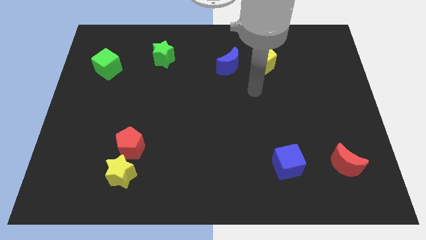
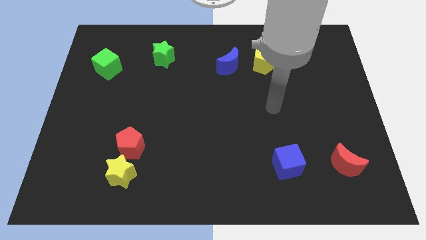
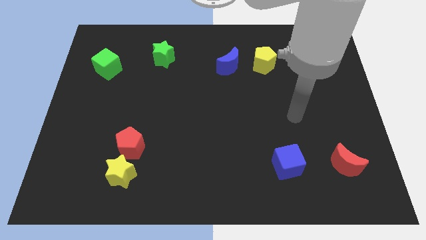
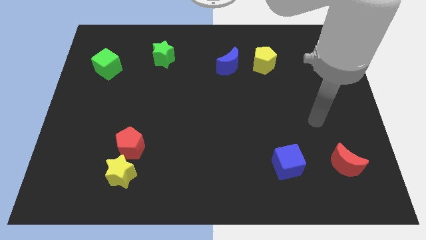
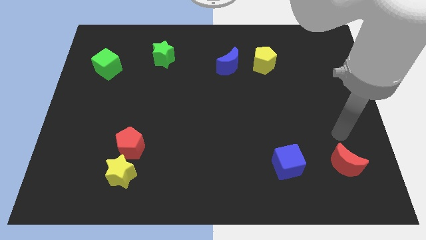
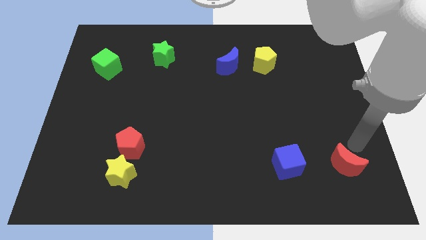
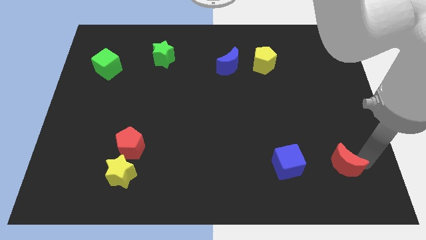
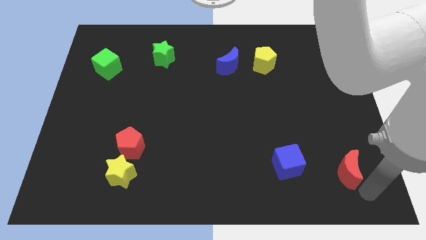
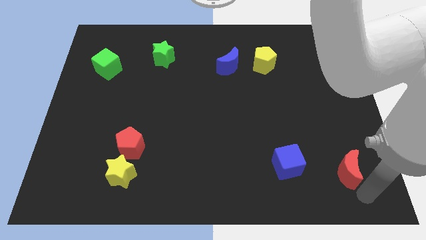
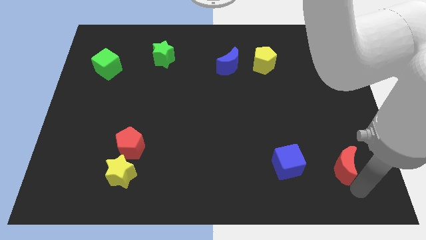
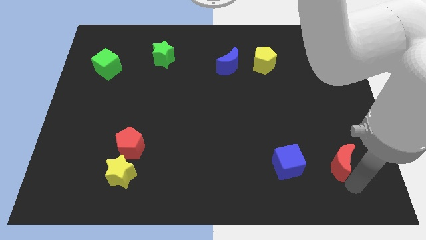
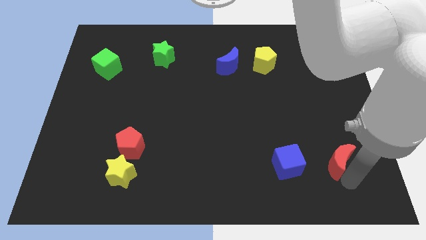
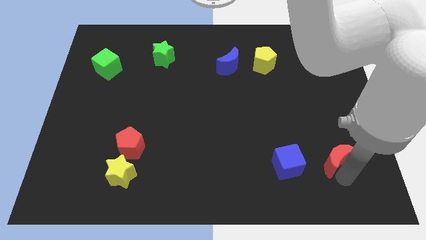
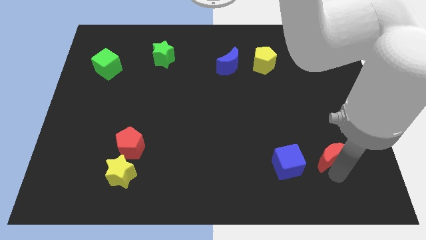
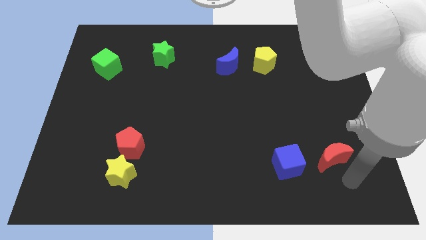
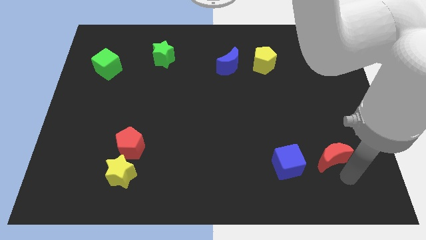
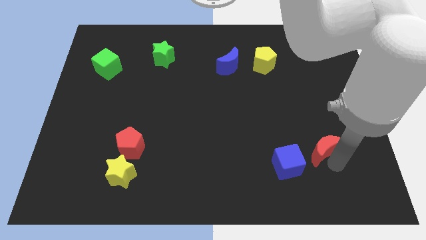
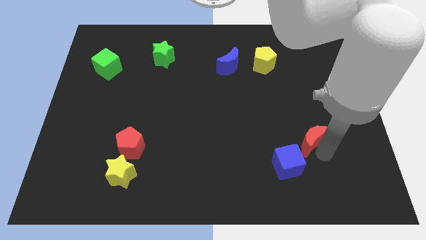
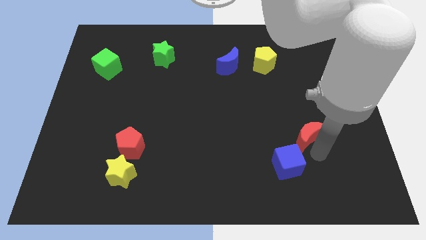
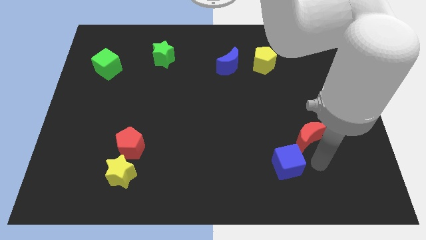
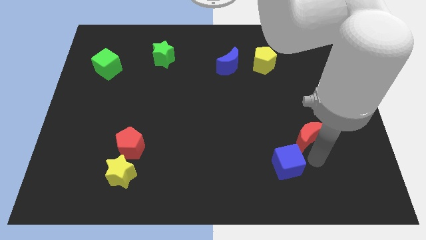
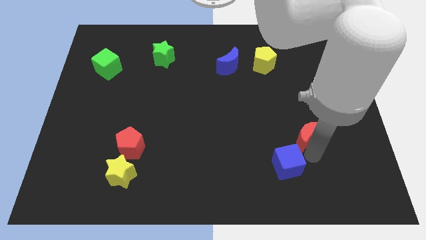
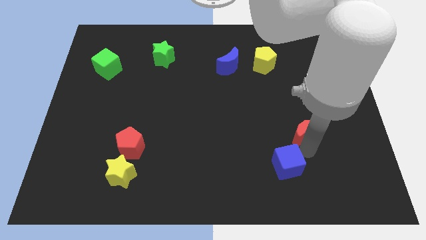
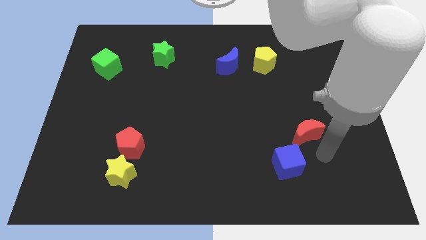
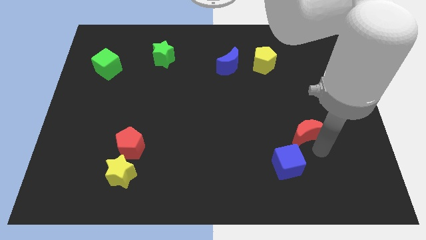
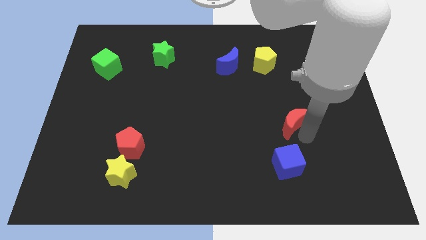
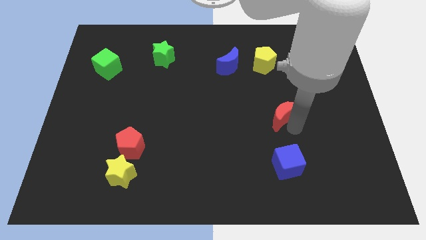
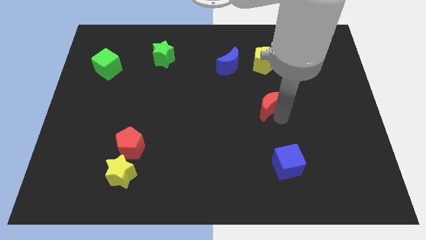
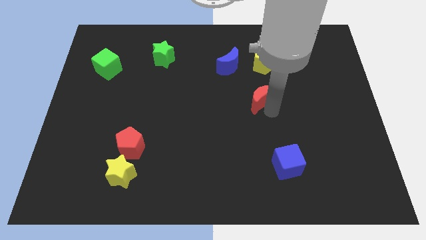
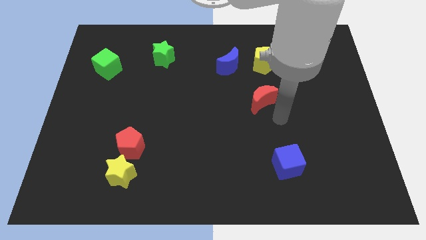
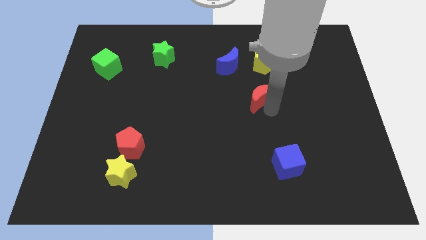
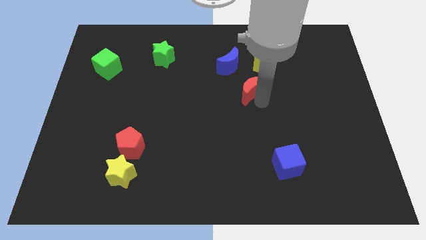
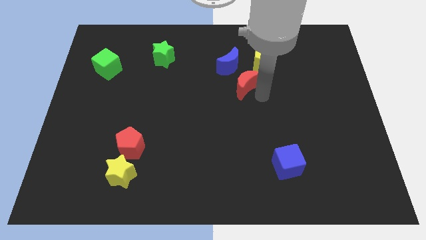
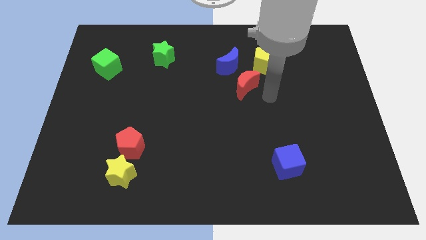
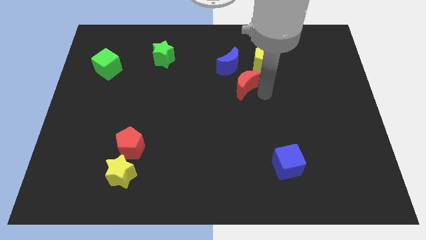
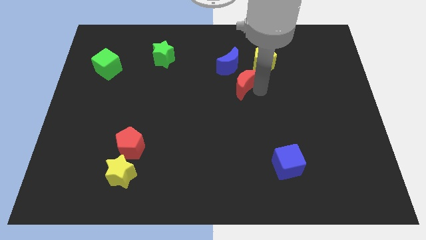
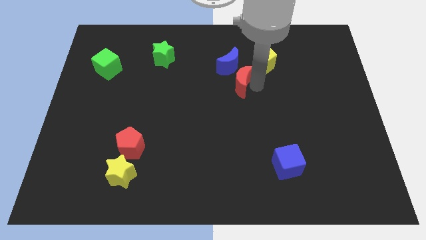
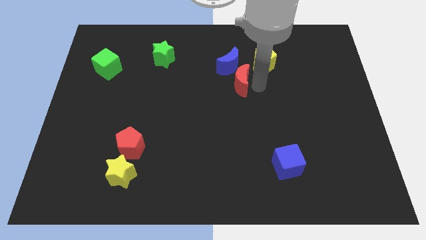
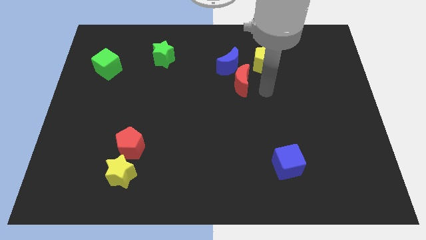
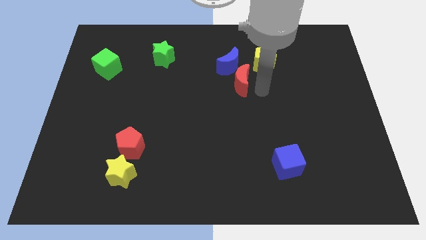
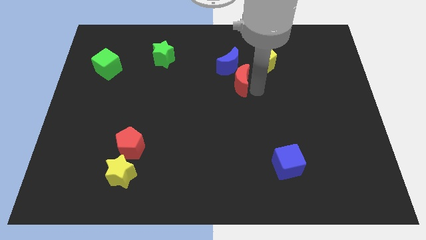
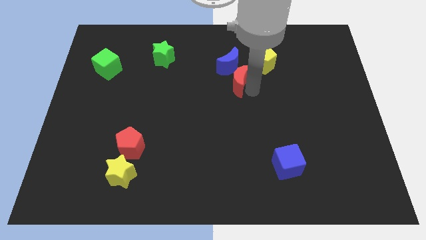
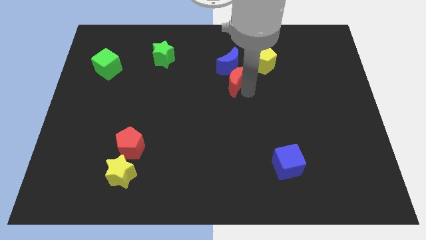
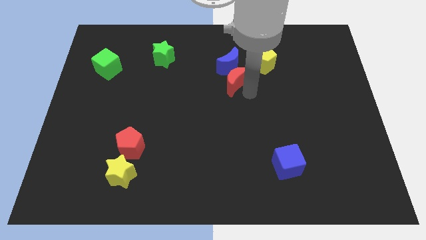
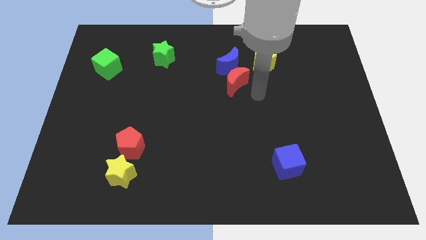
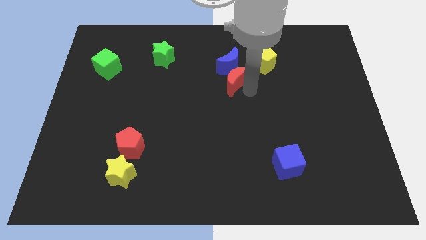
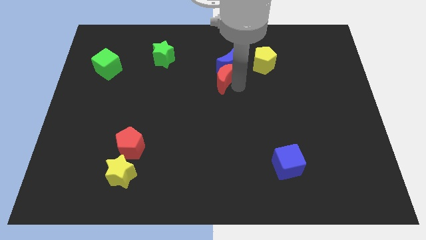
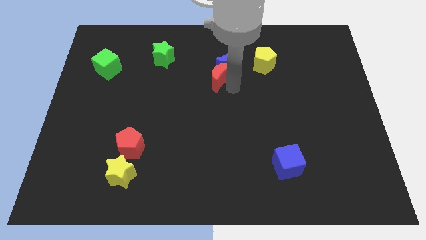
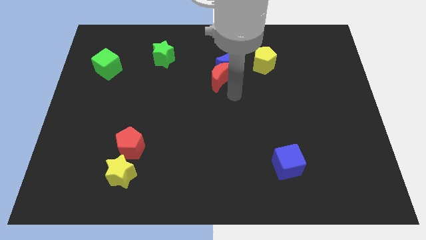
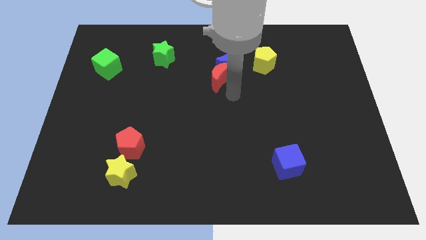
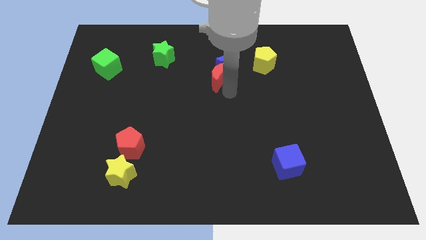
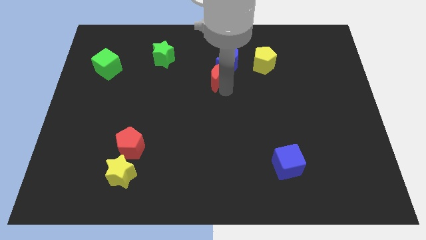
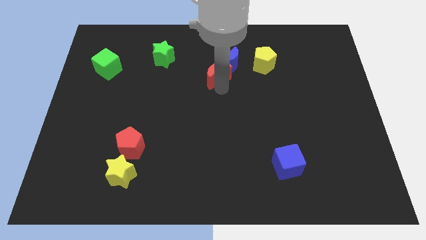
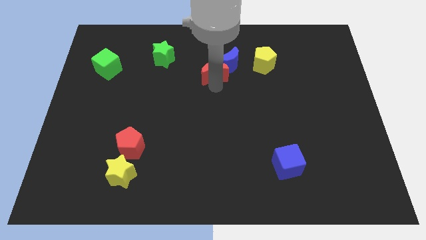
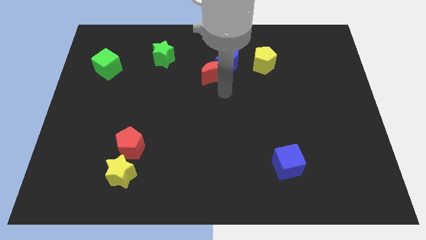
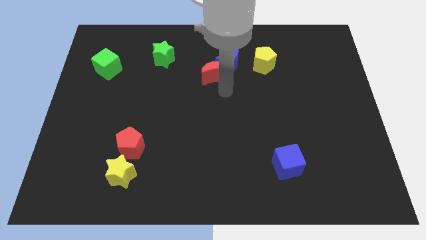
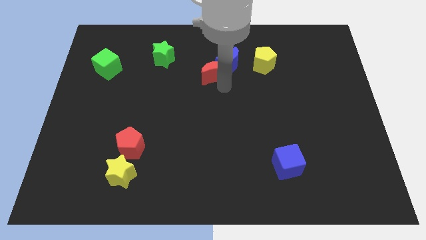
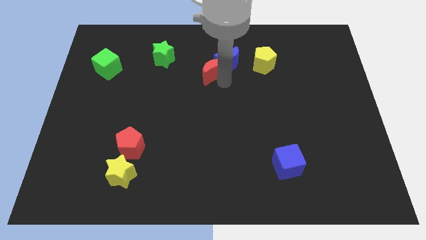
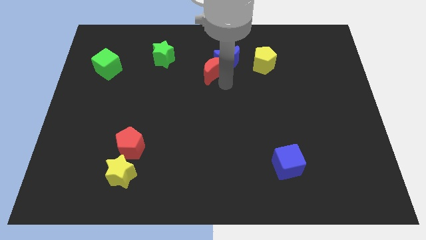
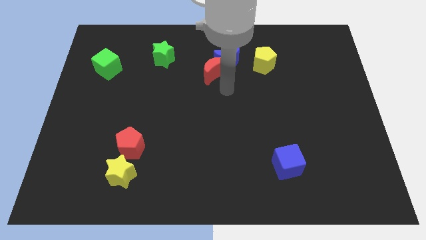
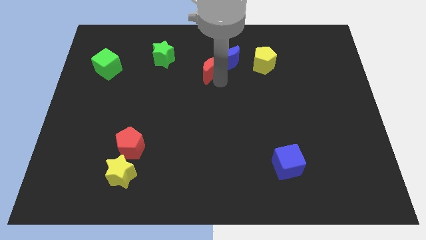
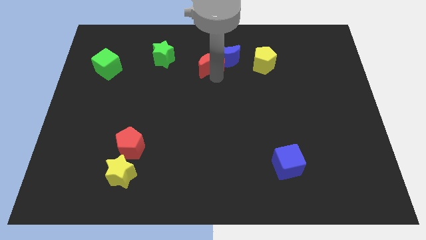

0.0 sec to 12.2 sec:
put the red moon right of the green star

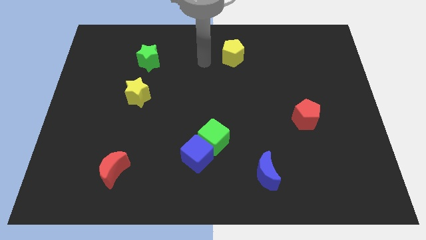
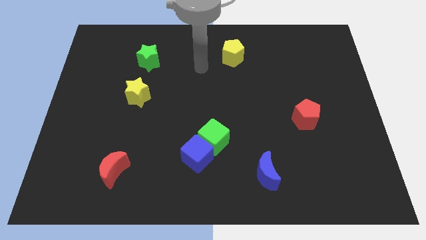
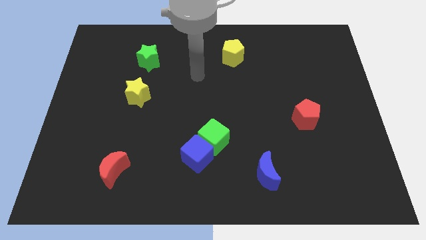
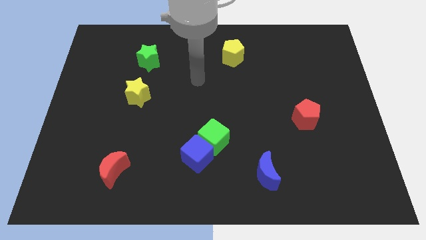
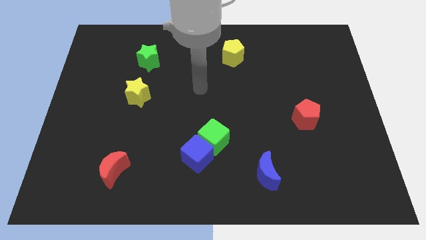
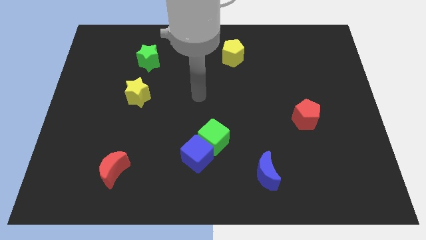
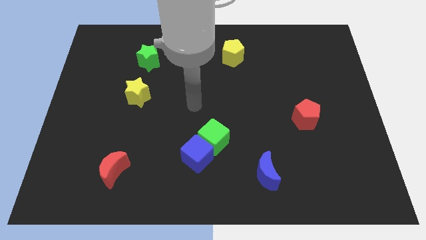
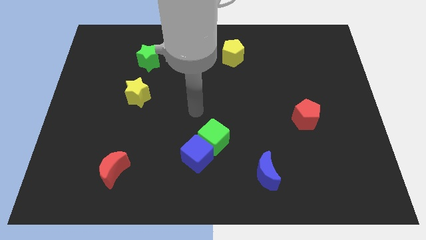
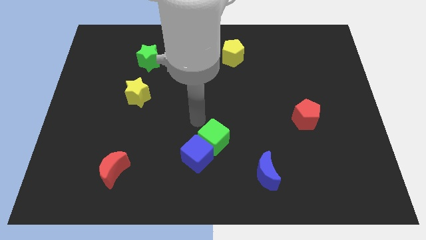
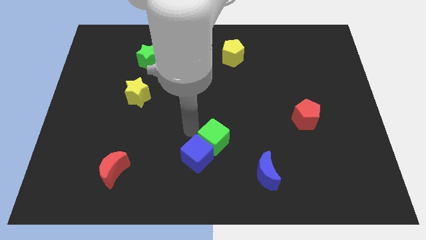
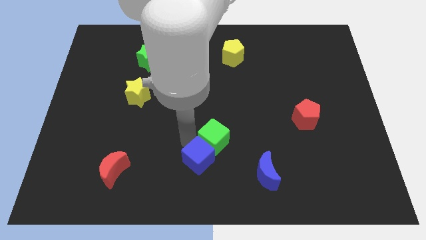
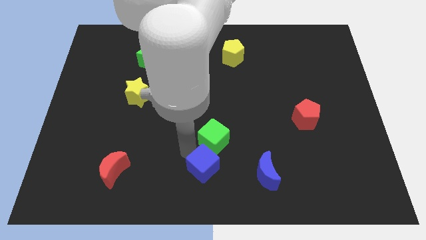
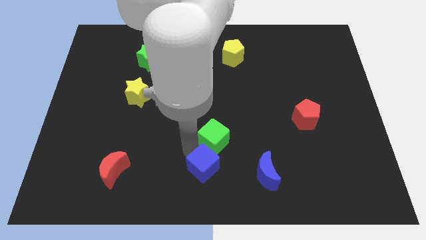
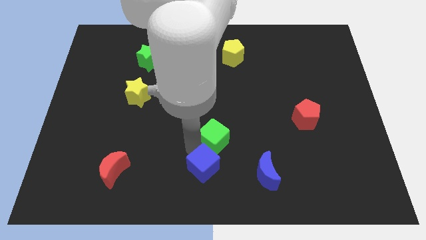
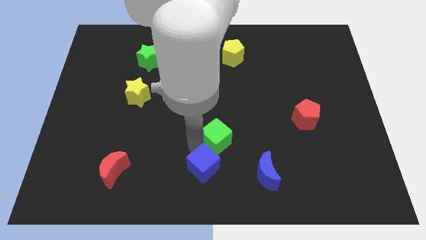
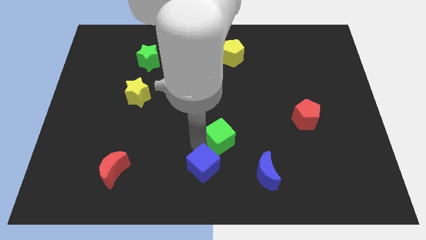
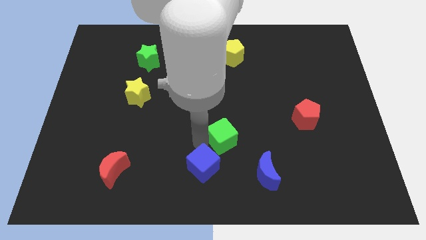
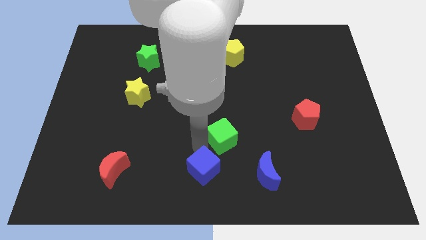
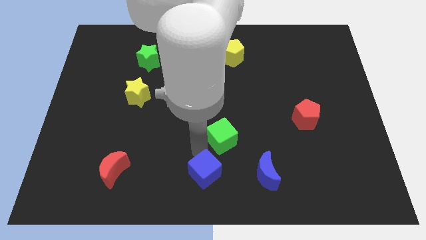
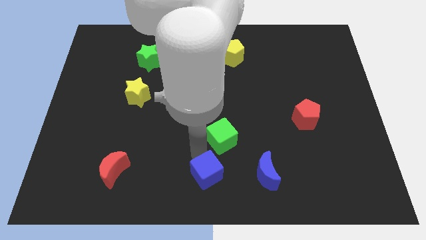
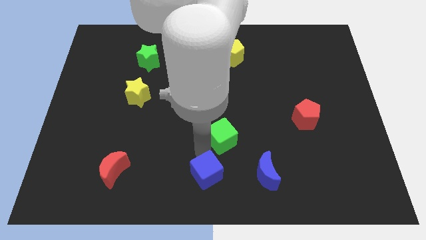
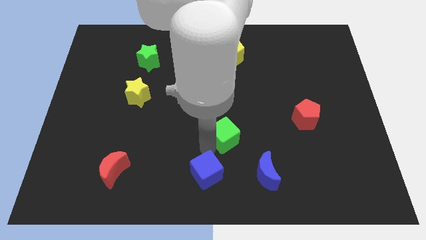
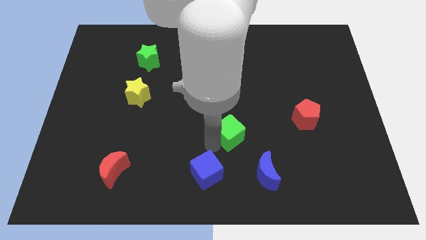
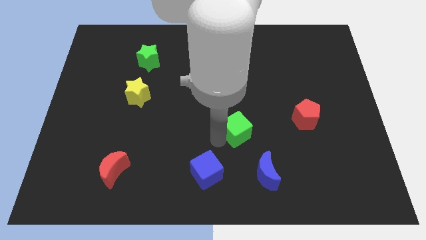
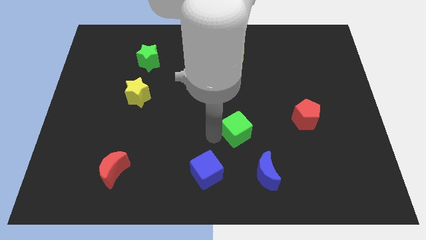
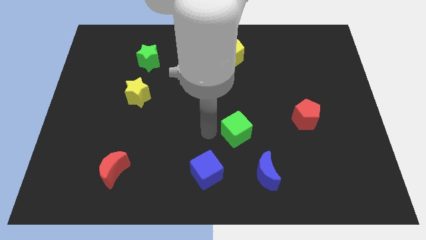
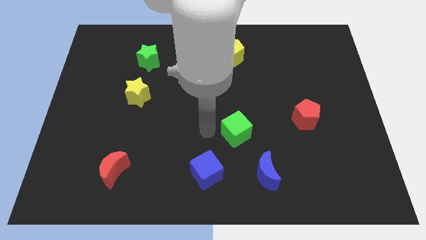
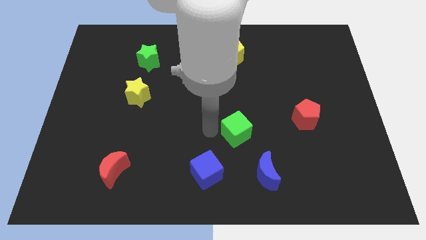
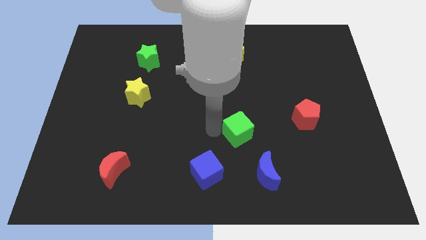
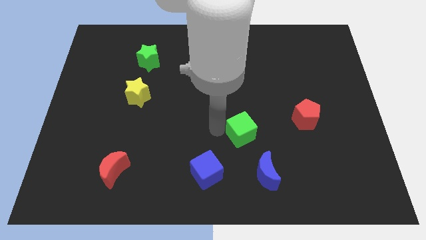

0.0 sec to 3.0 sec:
put the green cube to the top side of the blue moon
